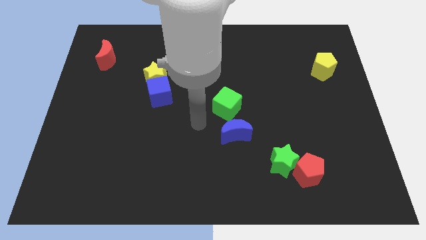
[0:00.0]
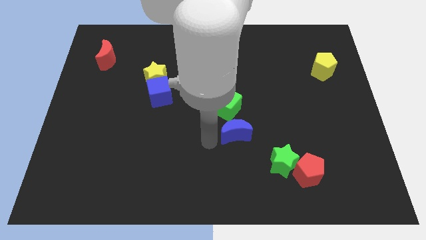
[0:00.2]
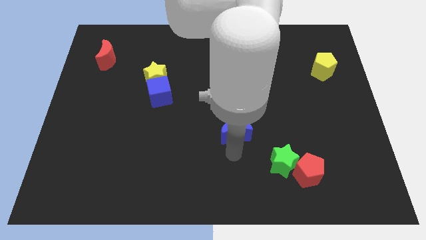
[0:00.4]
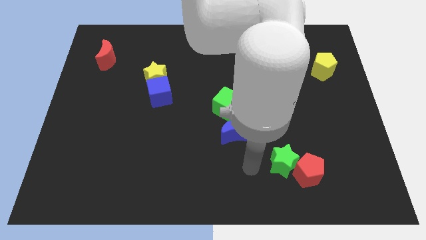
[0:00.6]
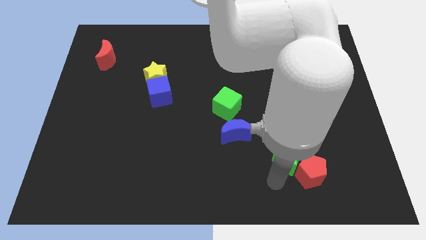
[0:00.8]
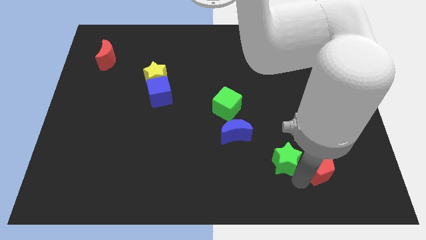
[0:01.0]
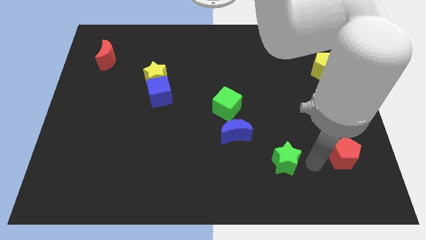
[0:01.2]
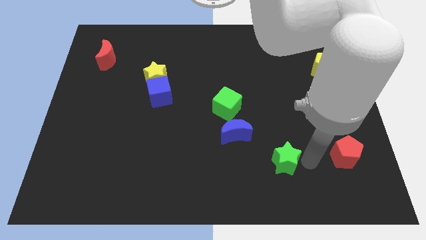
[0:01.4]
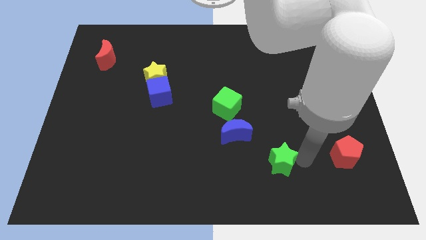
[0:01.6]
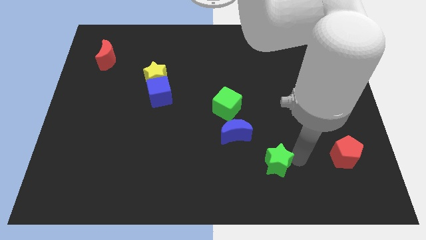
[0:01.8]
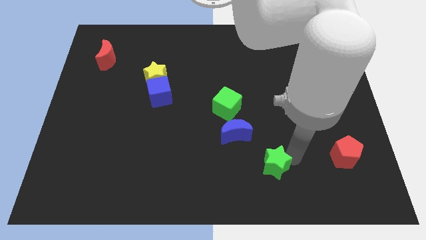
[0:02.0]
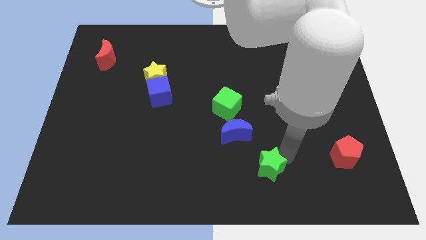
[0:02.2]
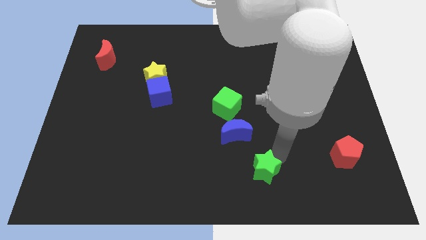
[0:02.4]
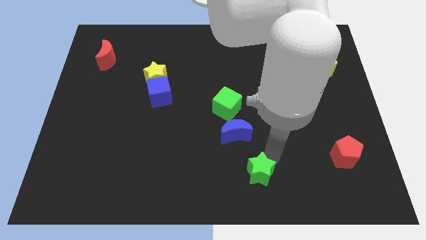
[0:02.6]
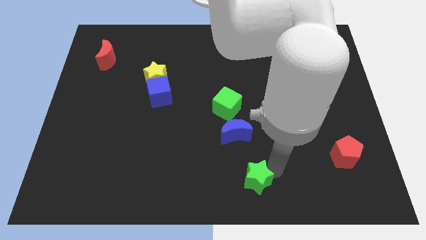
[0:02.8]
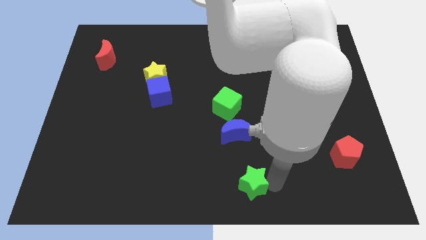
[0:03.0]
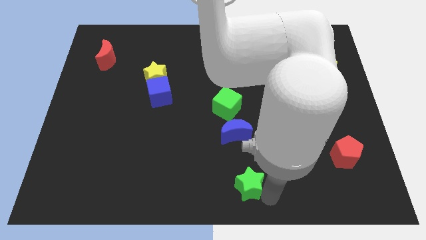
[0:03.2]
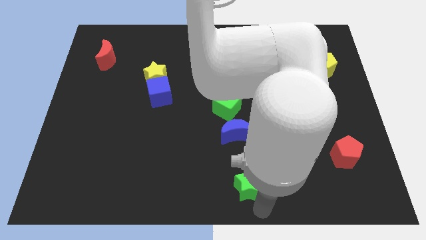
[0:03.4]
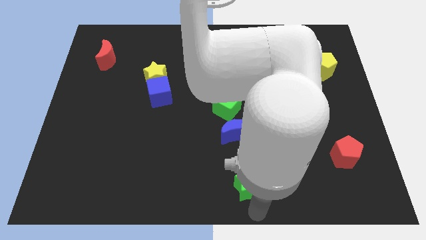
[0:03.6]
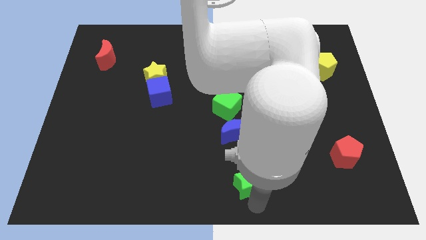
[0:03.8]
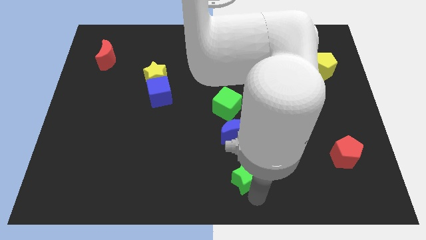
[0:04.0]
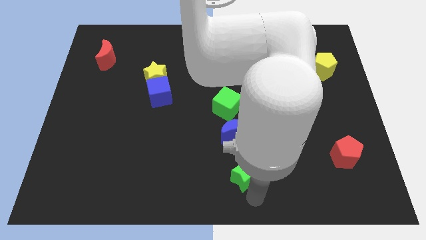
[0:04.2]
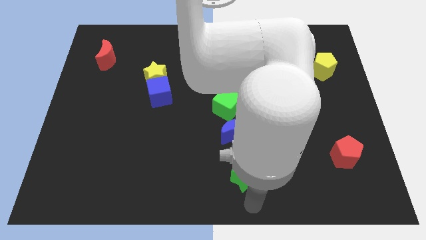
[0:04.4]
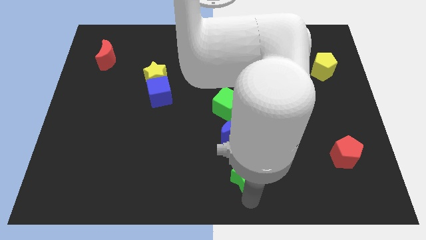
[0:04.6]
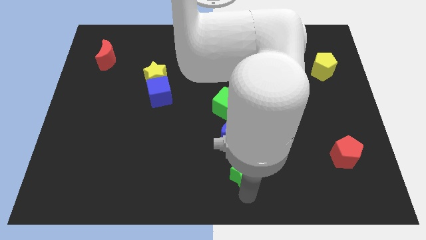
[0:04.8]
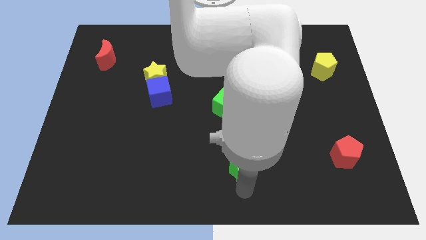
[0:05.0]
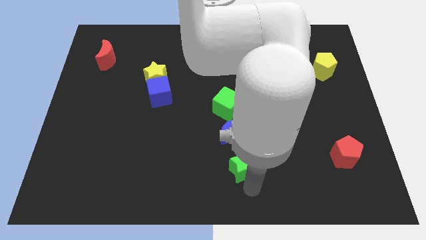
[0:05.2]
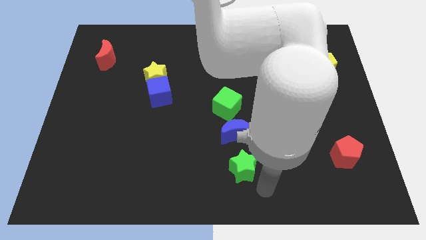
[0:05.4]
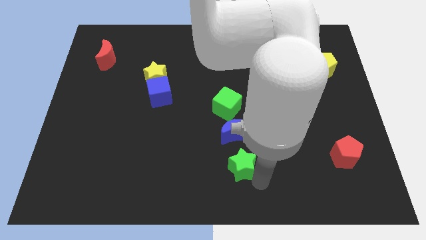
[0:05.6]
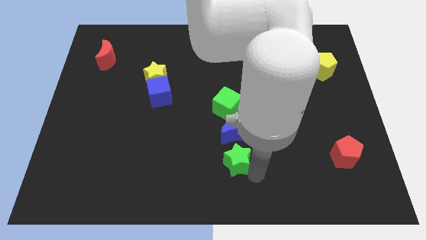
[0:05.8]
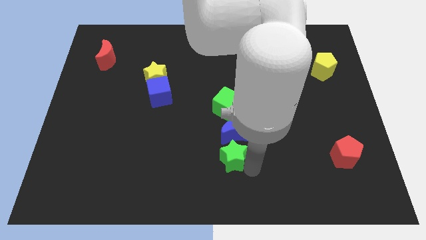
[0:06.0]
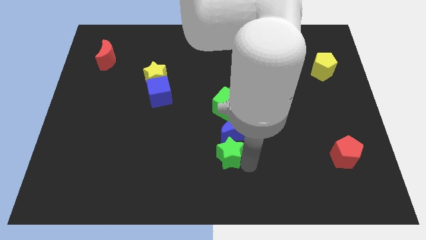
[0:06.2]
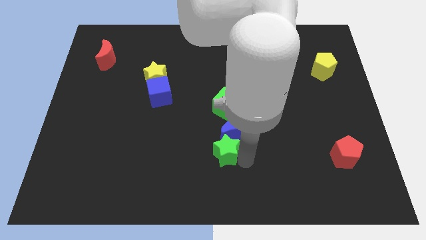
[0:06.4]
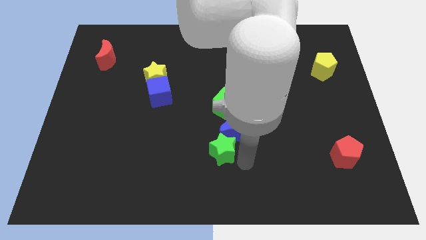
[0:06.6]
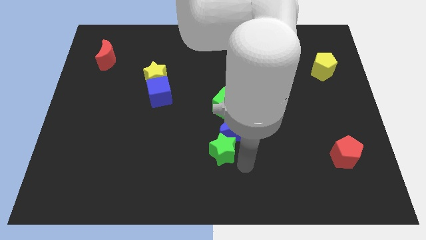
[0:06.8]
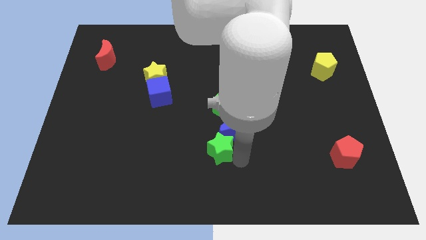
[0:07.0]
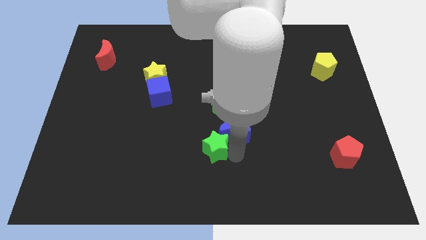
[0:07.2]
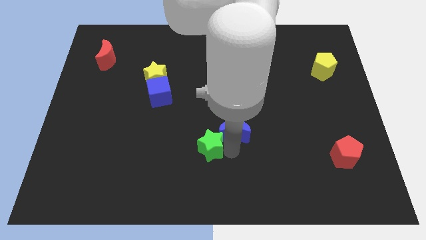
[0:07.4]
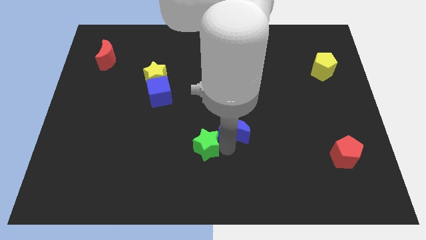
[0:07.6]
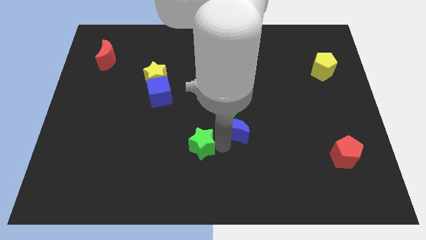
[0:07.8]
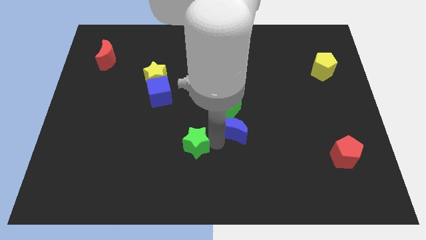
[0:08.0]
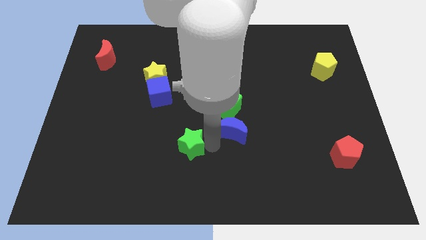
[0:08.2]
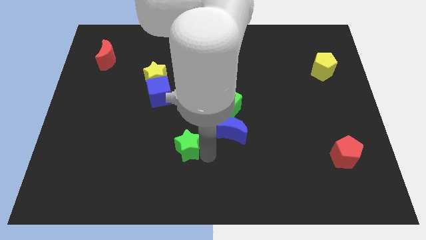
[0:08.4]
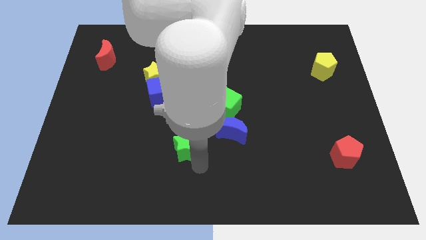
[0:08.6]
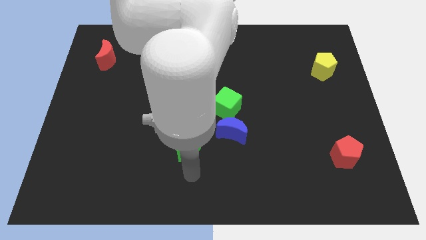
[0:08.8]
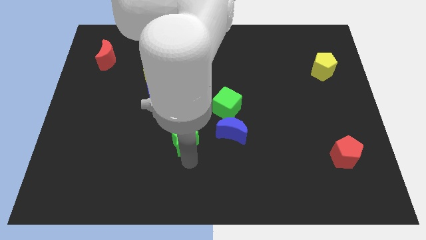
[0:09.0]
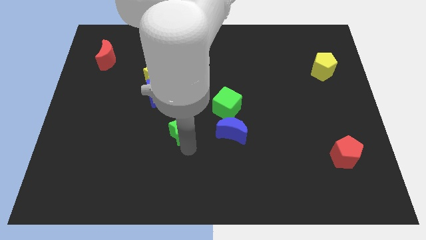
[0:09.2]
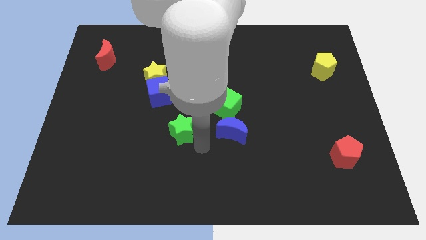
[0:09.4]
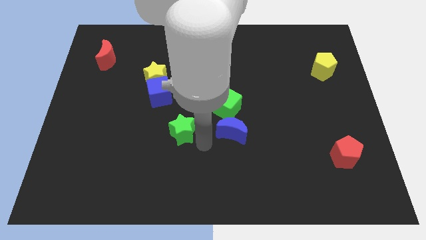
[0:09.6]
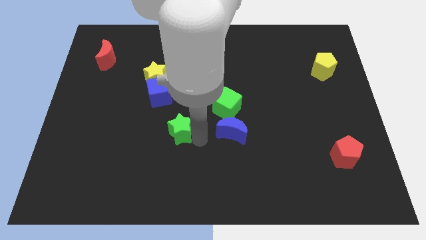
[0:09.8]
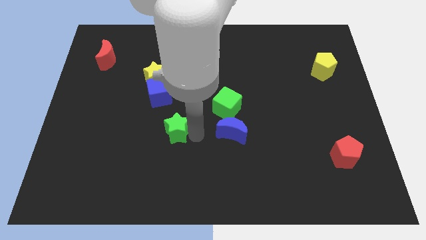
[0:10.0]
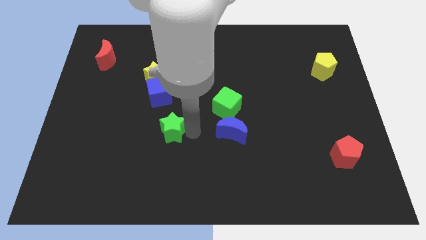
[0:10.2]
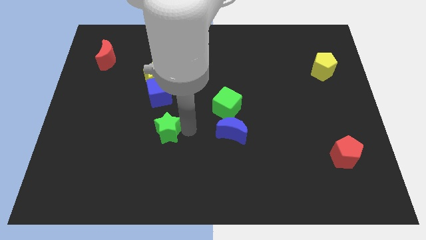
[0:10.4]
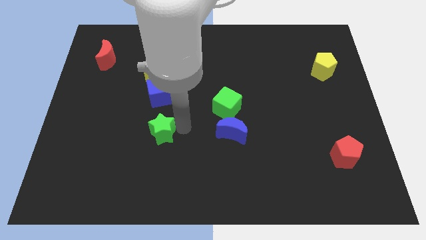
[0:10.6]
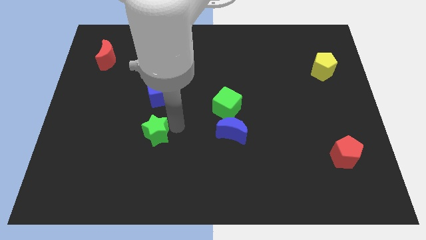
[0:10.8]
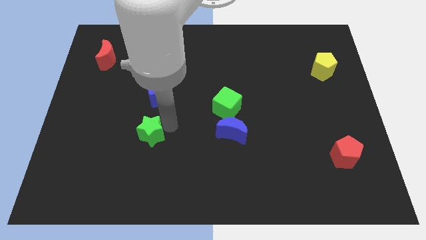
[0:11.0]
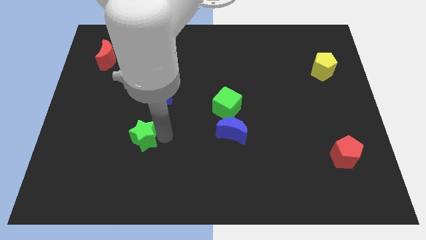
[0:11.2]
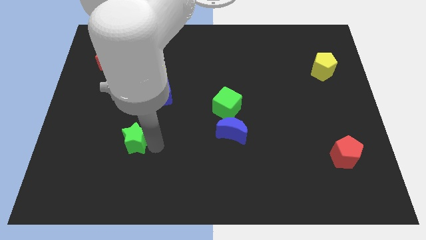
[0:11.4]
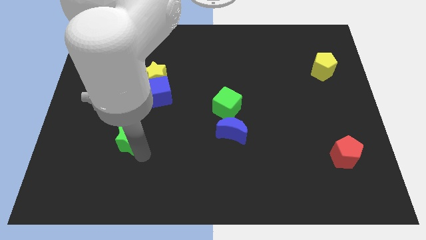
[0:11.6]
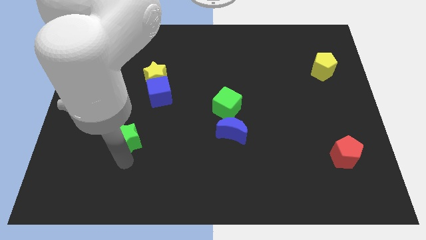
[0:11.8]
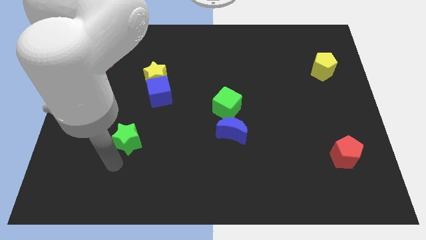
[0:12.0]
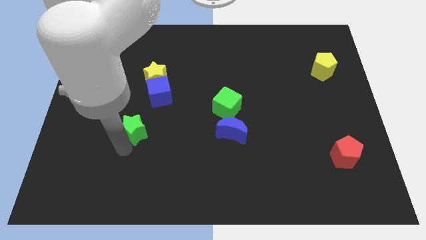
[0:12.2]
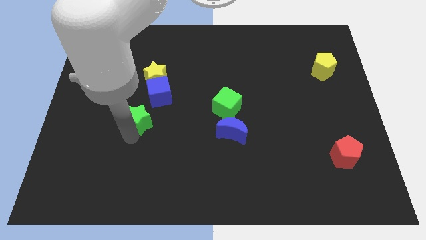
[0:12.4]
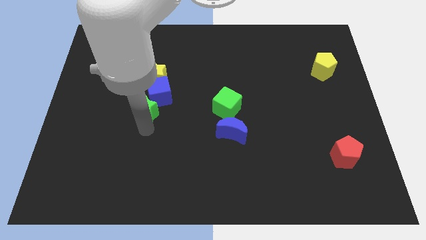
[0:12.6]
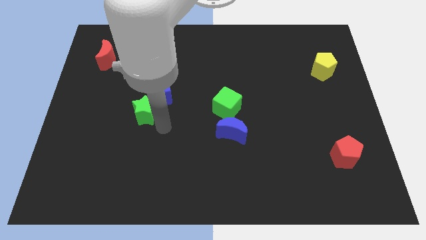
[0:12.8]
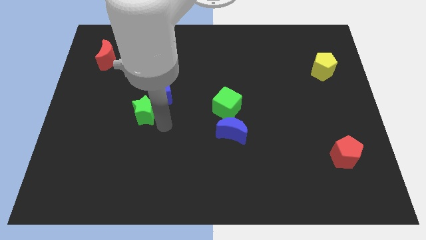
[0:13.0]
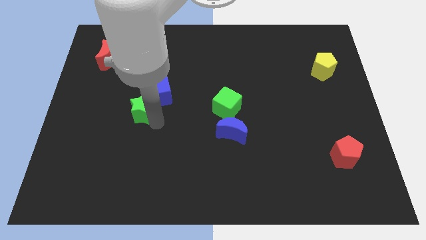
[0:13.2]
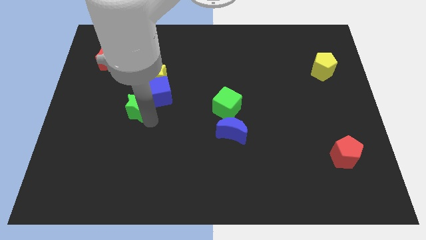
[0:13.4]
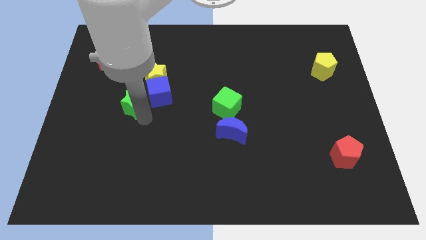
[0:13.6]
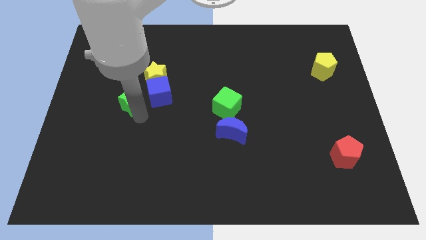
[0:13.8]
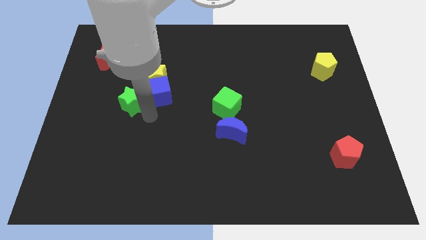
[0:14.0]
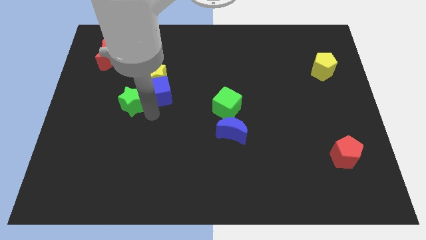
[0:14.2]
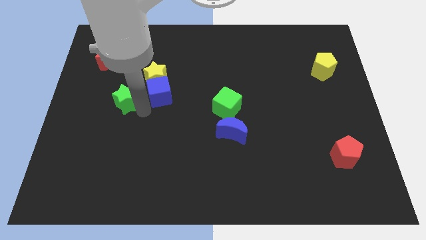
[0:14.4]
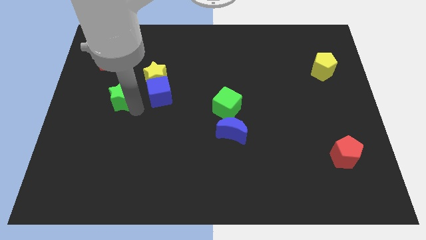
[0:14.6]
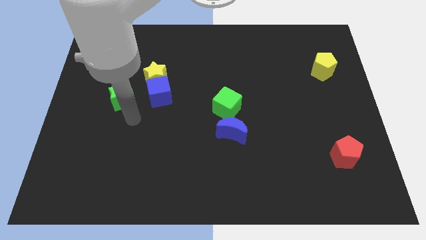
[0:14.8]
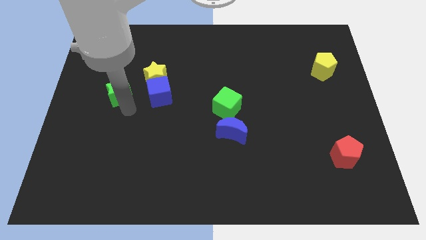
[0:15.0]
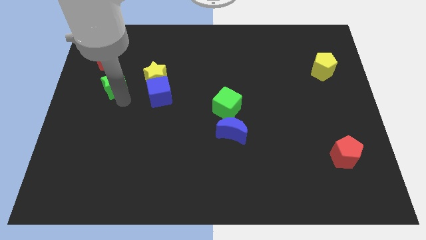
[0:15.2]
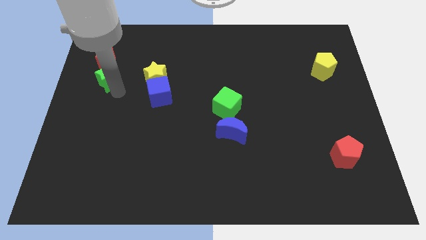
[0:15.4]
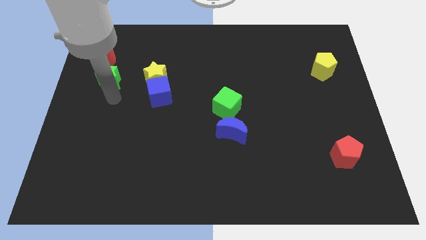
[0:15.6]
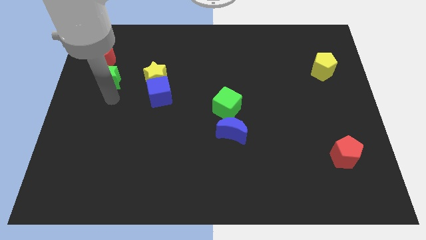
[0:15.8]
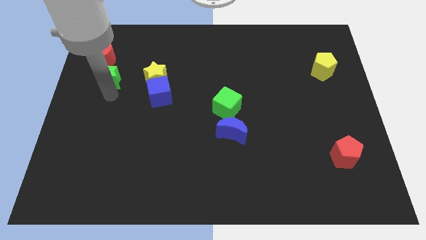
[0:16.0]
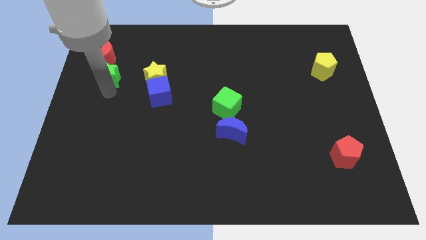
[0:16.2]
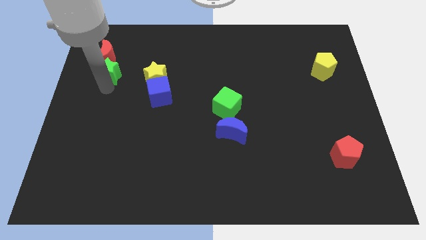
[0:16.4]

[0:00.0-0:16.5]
push the green star next to the red moon
